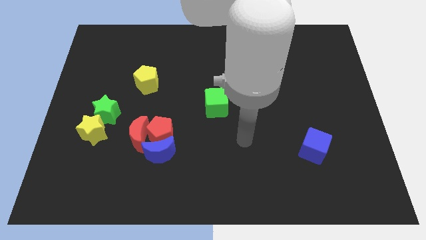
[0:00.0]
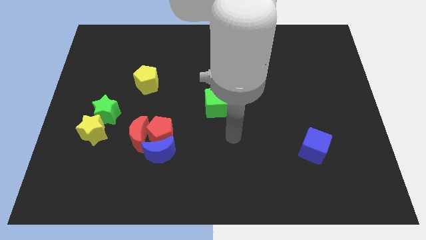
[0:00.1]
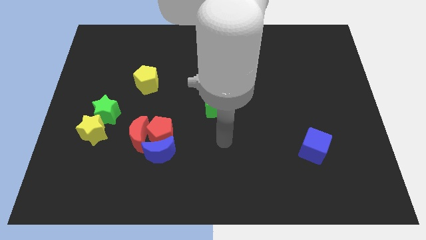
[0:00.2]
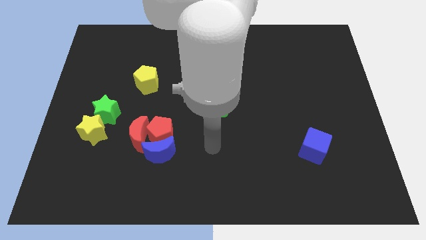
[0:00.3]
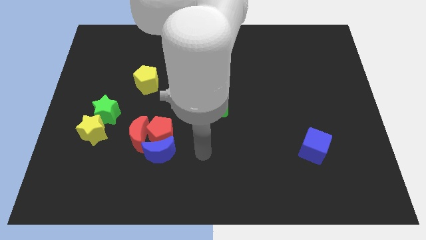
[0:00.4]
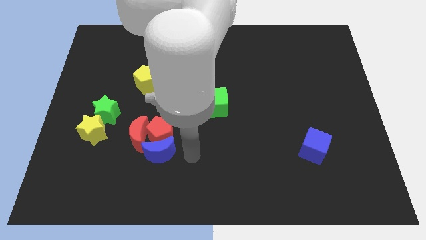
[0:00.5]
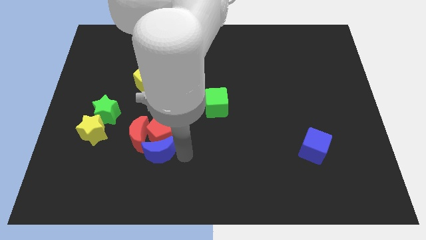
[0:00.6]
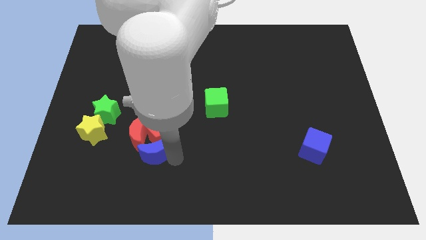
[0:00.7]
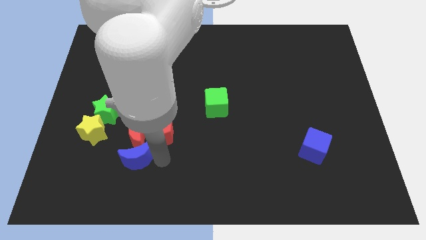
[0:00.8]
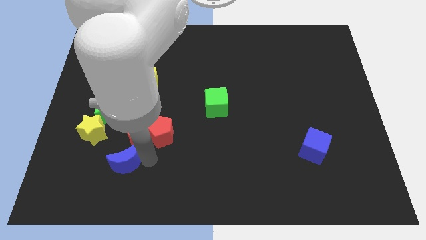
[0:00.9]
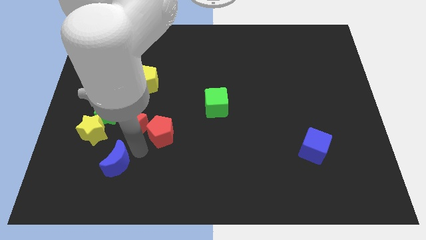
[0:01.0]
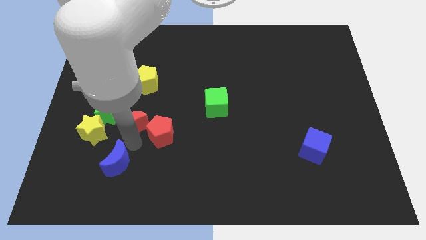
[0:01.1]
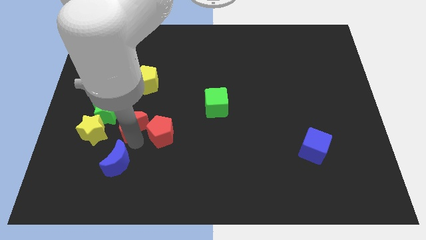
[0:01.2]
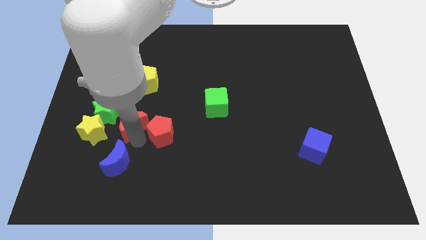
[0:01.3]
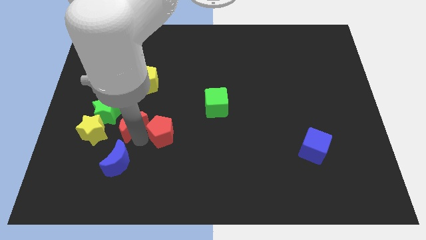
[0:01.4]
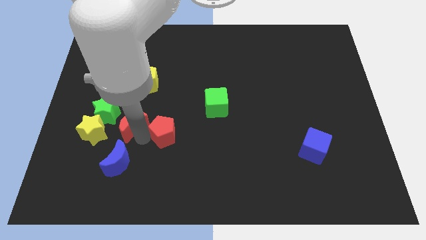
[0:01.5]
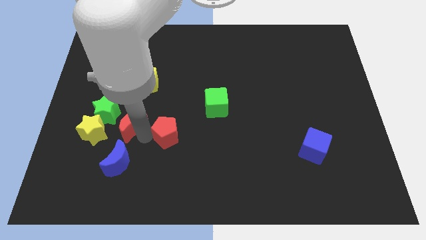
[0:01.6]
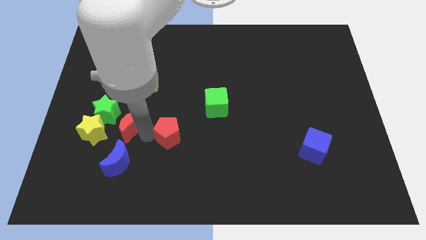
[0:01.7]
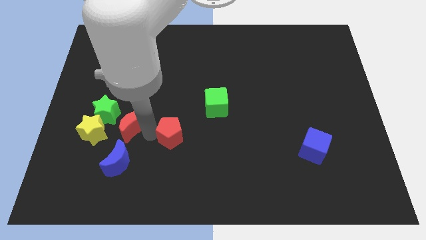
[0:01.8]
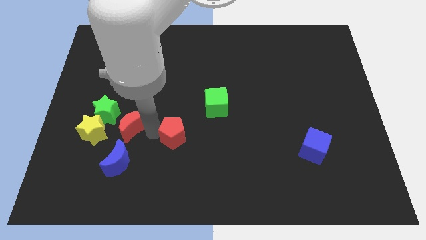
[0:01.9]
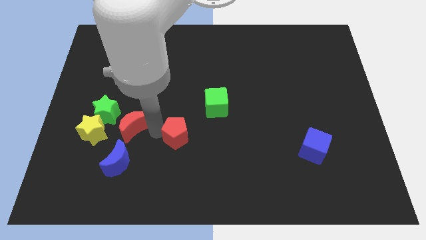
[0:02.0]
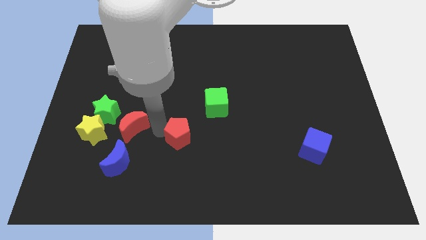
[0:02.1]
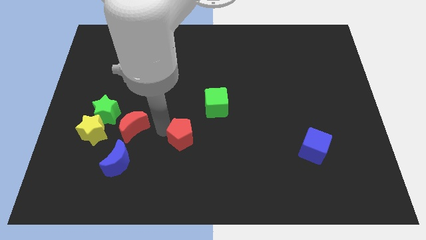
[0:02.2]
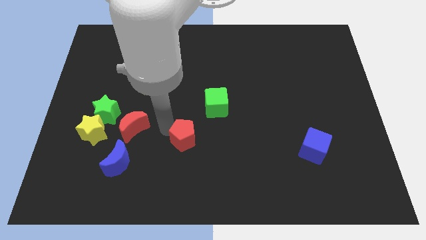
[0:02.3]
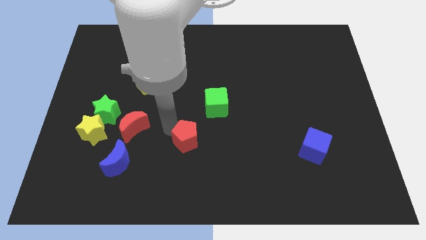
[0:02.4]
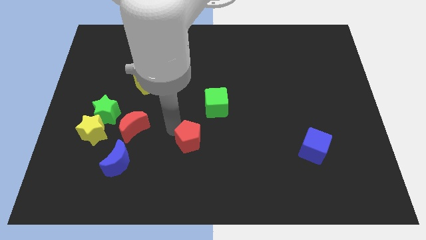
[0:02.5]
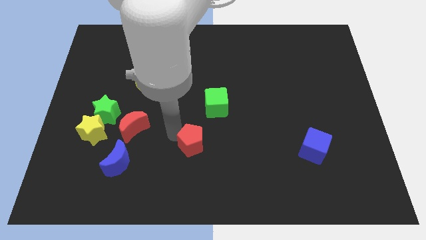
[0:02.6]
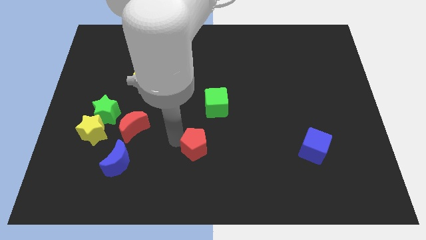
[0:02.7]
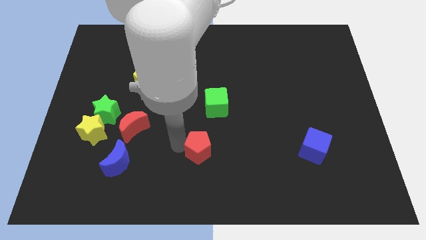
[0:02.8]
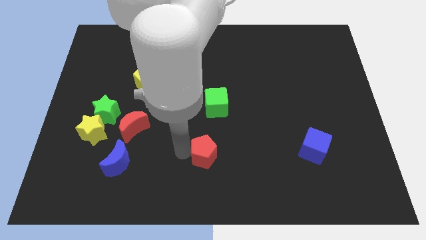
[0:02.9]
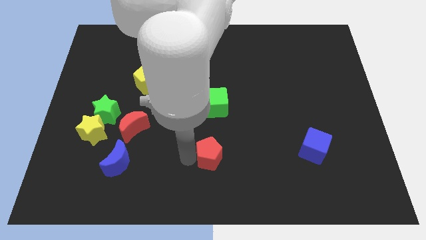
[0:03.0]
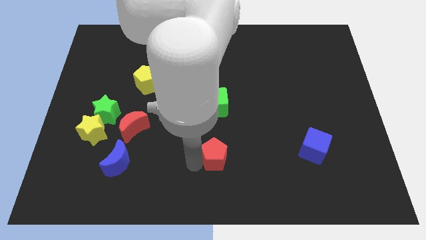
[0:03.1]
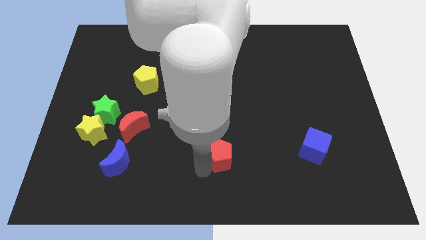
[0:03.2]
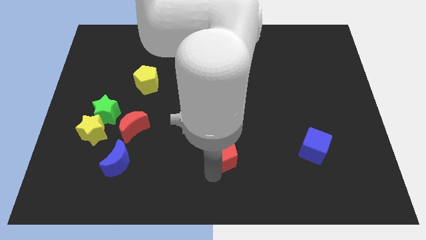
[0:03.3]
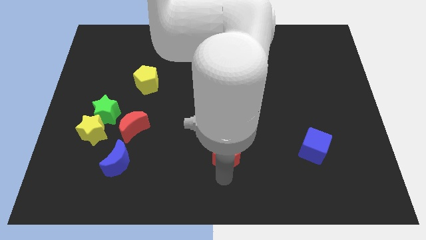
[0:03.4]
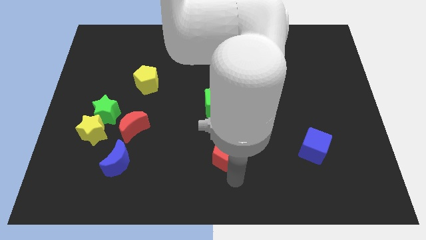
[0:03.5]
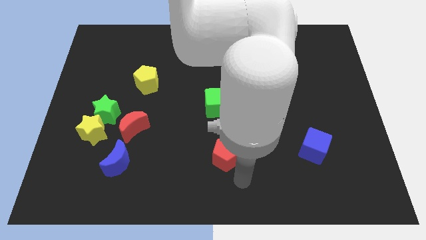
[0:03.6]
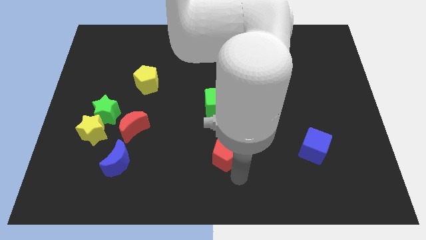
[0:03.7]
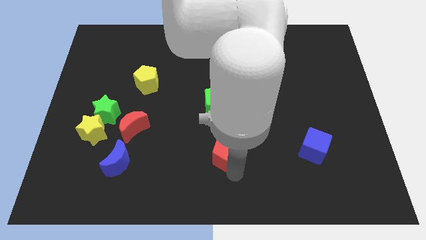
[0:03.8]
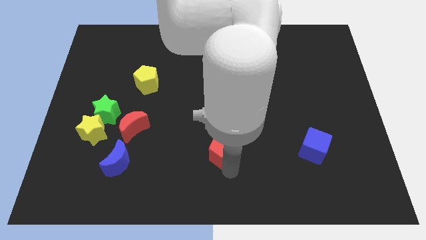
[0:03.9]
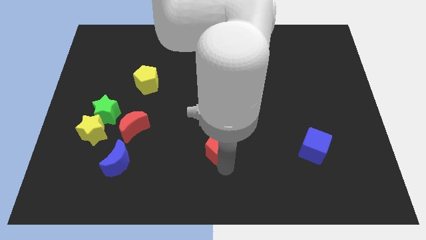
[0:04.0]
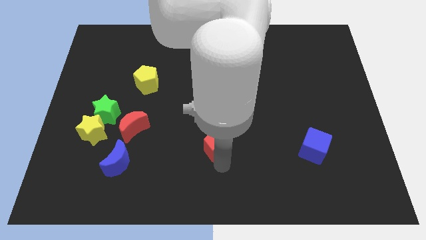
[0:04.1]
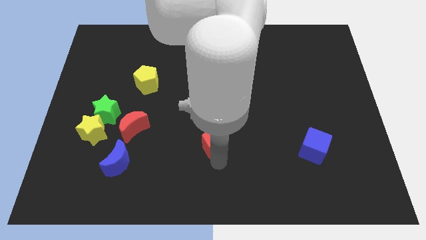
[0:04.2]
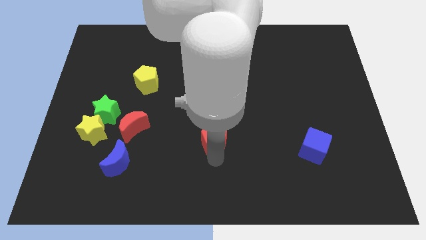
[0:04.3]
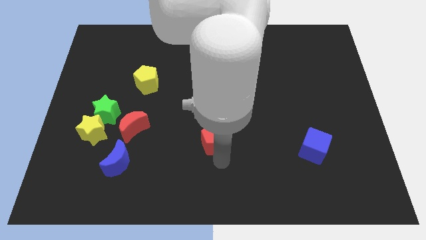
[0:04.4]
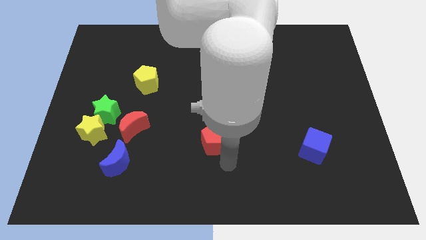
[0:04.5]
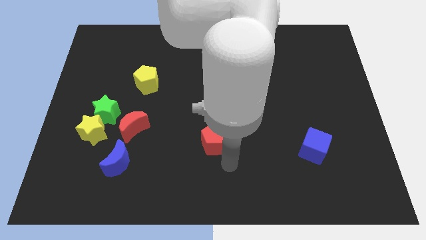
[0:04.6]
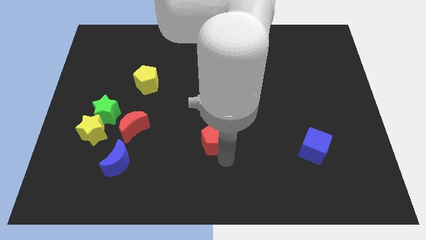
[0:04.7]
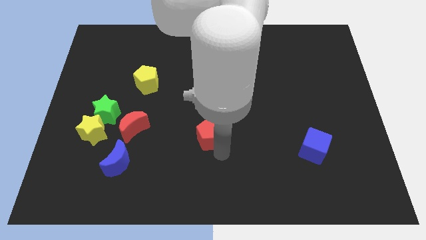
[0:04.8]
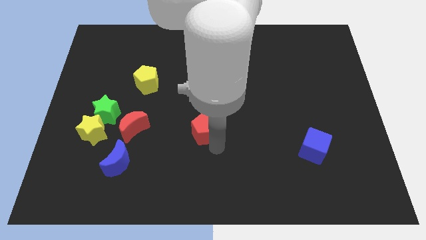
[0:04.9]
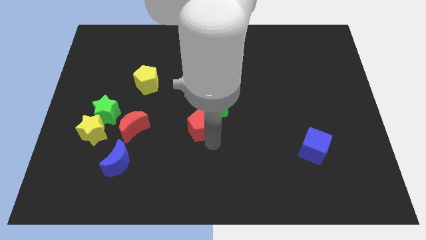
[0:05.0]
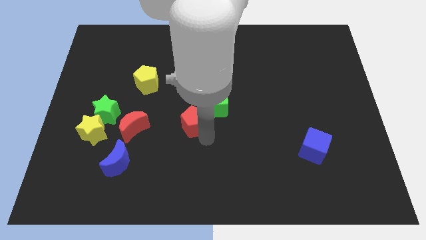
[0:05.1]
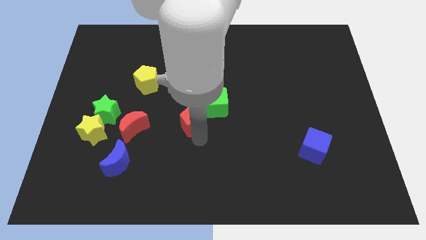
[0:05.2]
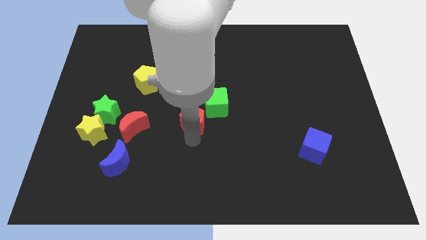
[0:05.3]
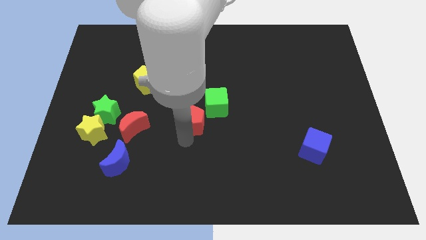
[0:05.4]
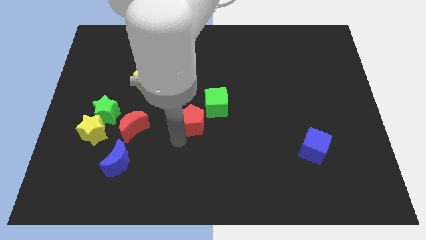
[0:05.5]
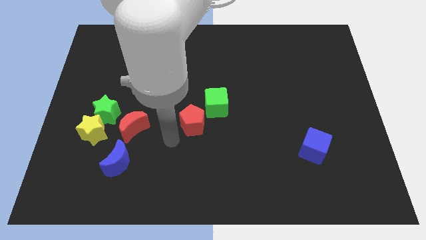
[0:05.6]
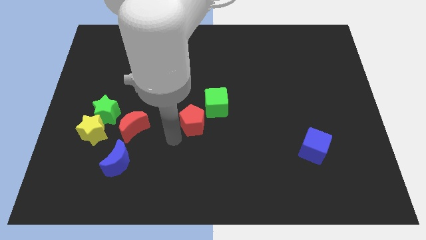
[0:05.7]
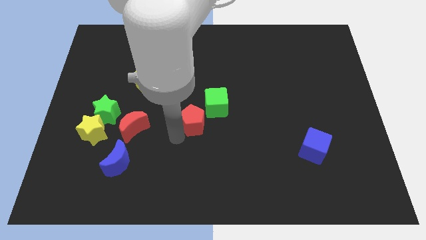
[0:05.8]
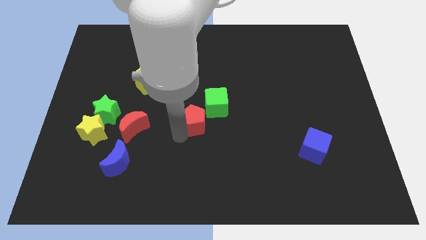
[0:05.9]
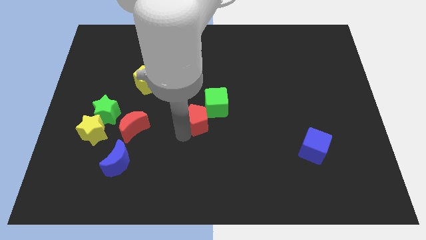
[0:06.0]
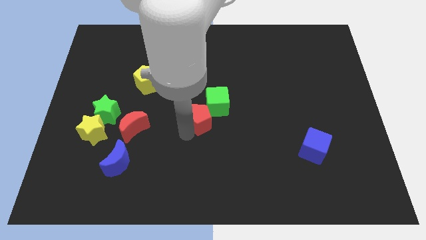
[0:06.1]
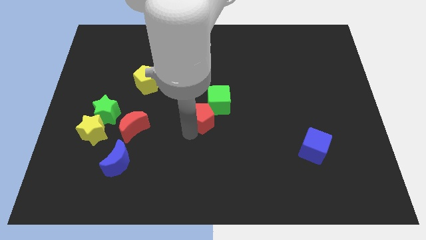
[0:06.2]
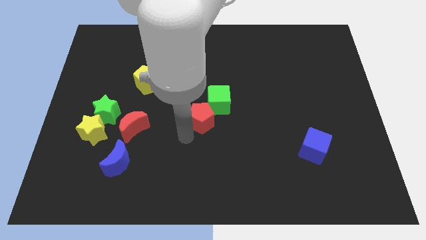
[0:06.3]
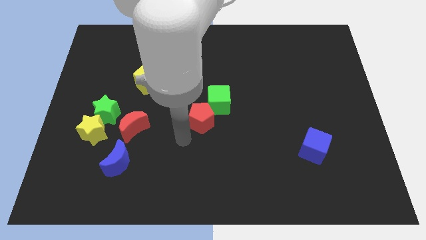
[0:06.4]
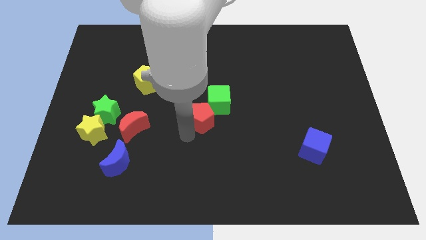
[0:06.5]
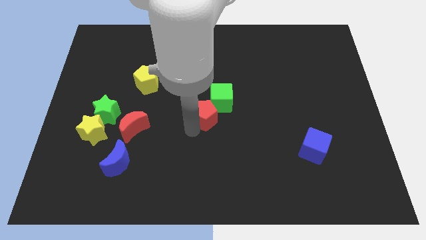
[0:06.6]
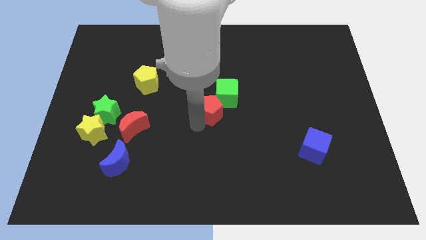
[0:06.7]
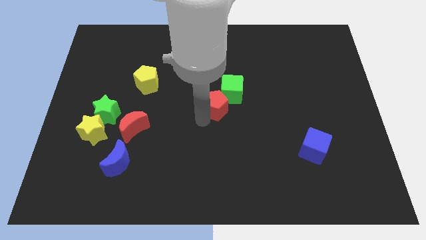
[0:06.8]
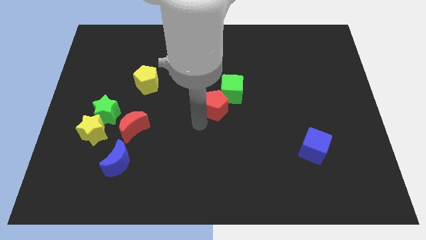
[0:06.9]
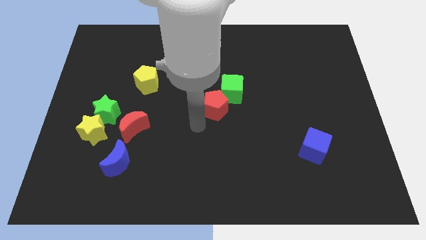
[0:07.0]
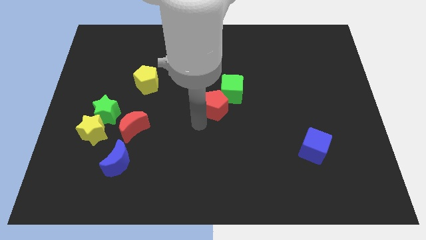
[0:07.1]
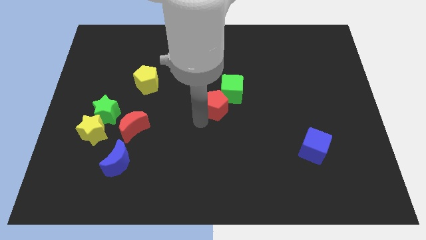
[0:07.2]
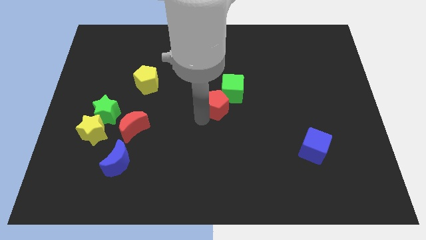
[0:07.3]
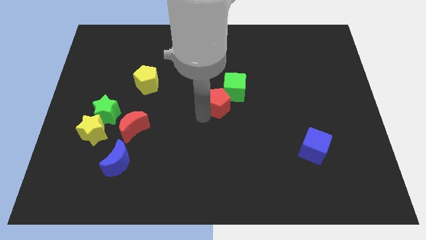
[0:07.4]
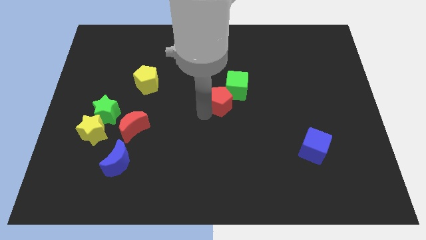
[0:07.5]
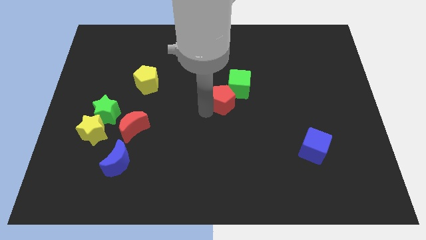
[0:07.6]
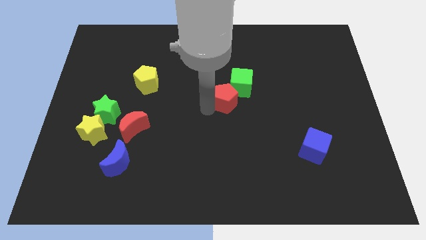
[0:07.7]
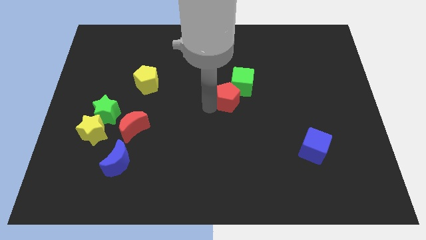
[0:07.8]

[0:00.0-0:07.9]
move the red pentagon next to the green cube
